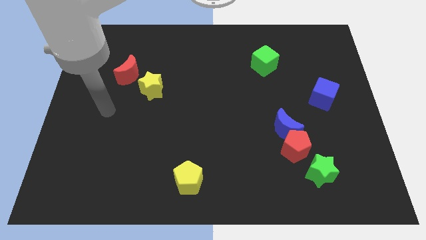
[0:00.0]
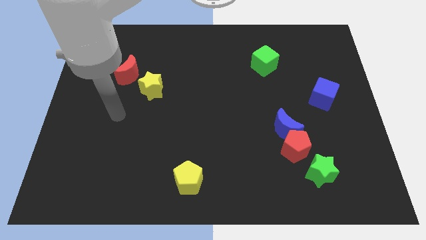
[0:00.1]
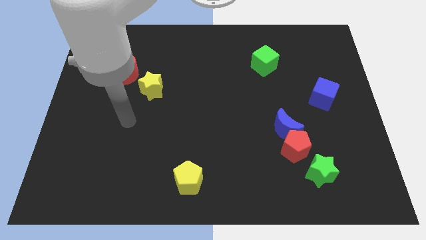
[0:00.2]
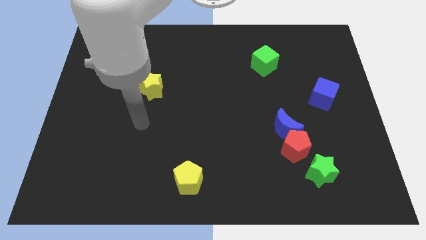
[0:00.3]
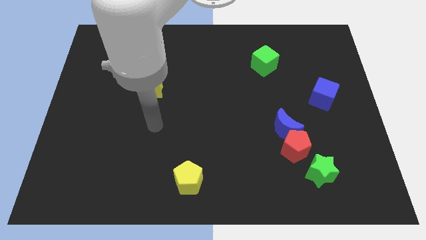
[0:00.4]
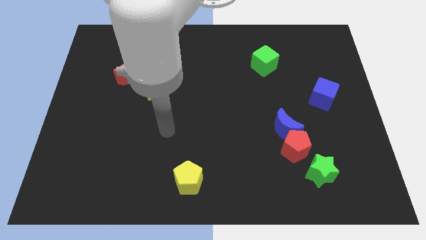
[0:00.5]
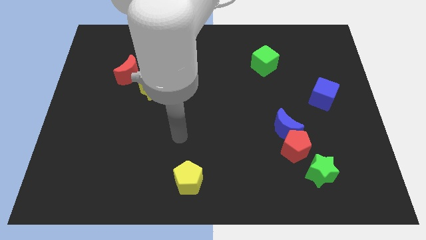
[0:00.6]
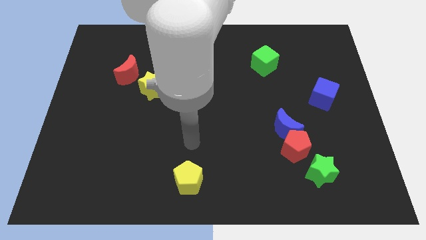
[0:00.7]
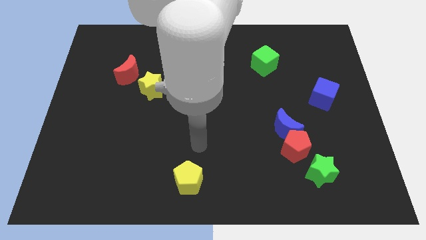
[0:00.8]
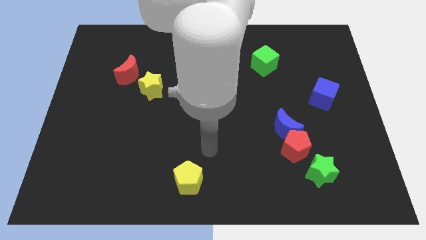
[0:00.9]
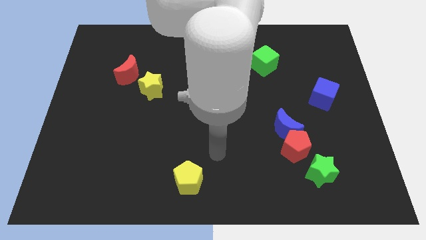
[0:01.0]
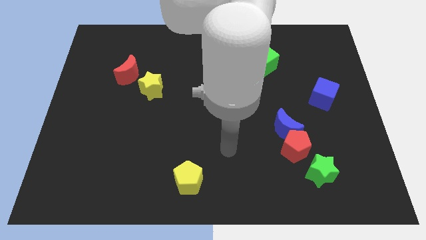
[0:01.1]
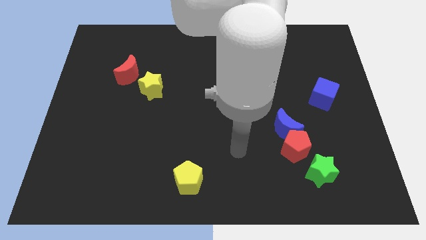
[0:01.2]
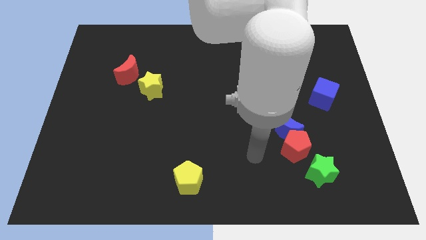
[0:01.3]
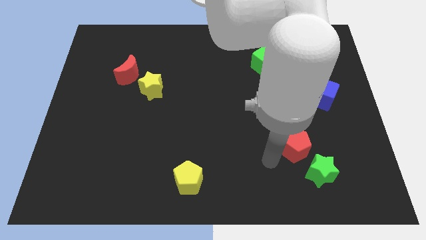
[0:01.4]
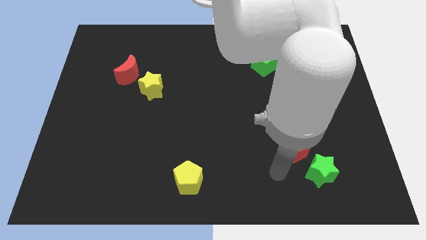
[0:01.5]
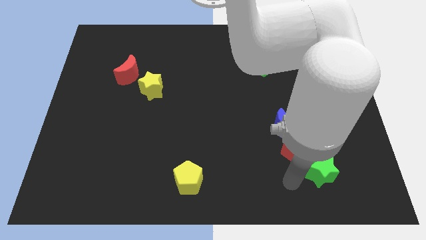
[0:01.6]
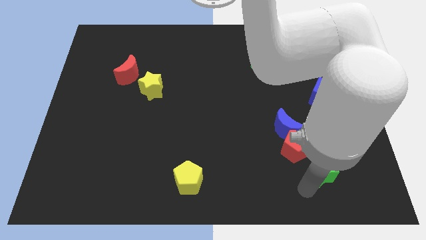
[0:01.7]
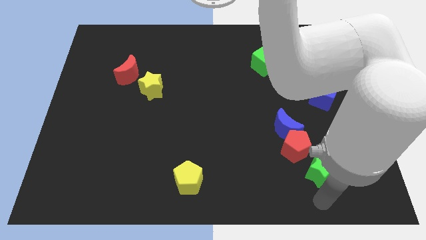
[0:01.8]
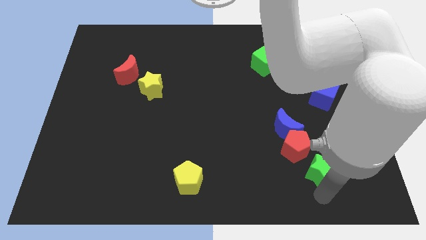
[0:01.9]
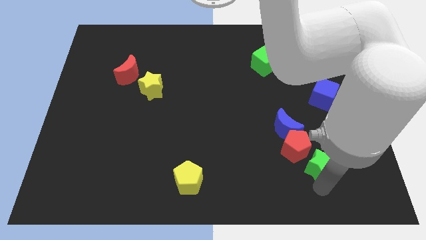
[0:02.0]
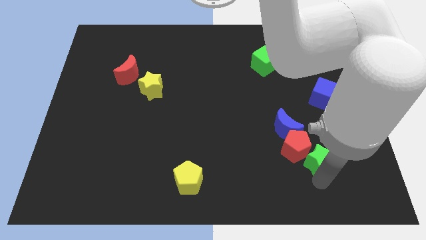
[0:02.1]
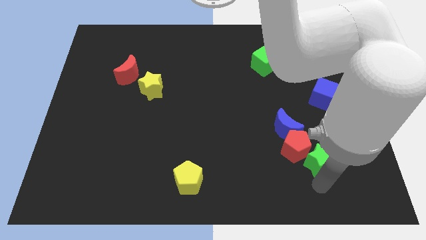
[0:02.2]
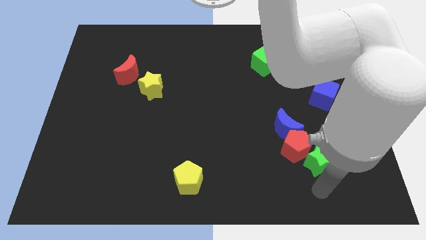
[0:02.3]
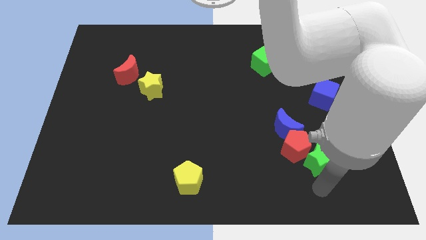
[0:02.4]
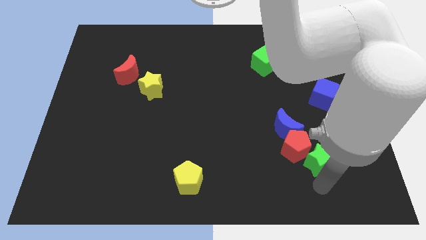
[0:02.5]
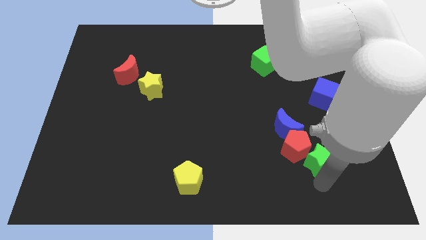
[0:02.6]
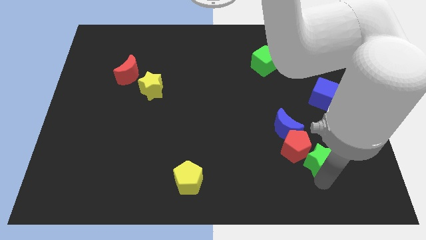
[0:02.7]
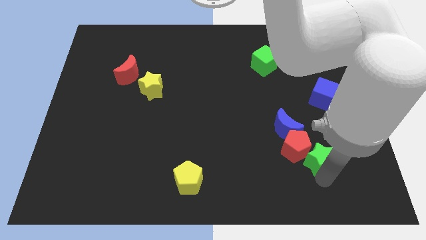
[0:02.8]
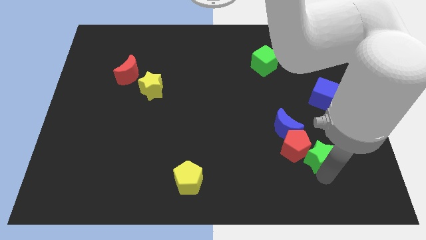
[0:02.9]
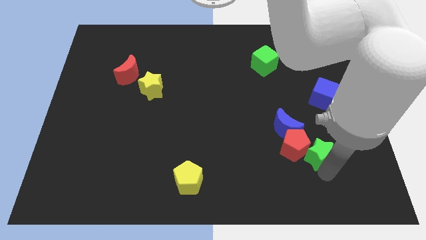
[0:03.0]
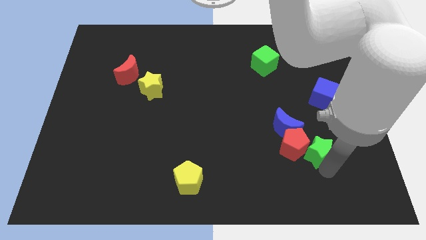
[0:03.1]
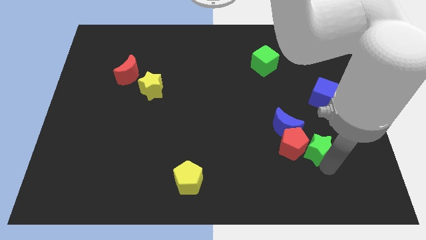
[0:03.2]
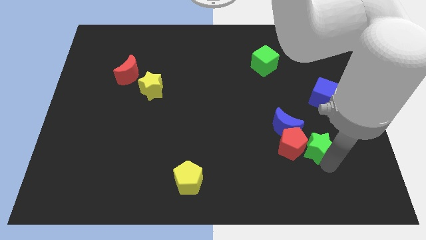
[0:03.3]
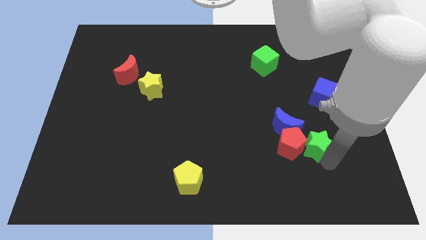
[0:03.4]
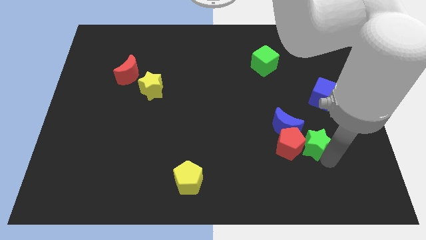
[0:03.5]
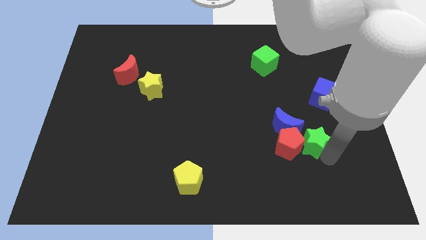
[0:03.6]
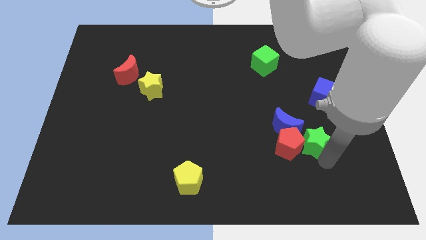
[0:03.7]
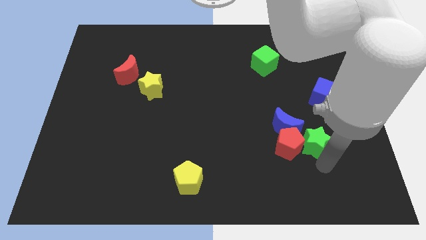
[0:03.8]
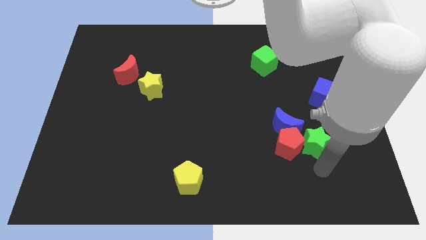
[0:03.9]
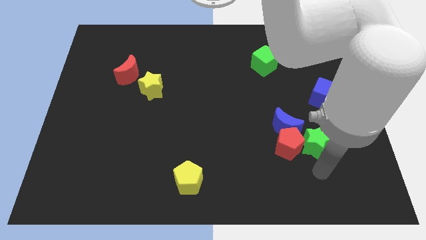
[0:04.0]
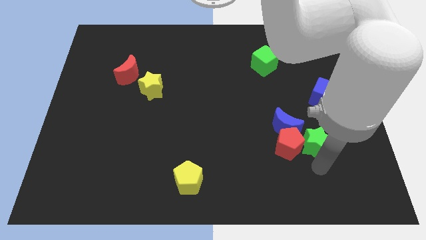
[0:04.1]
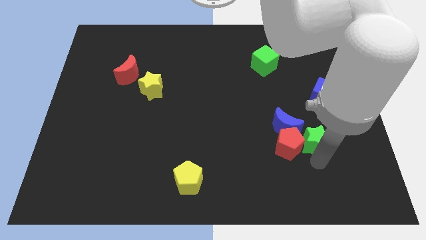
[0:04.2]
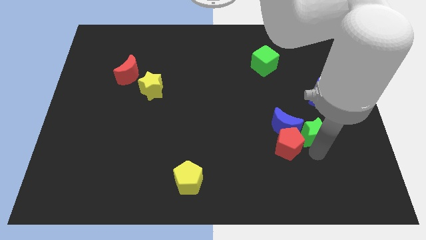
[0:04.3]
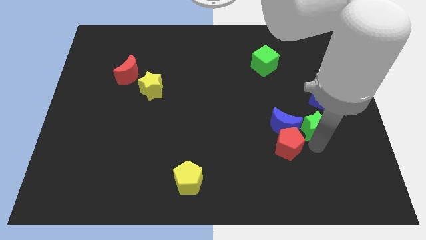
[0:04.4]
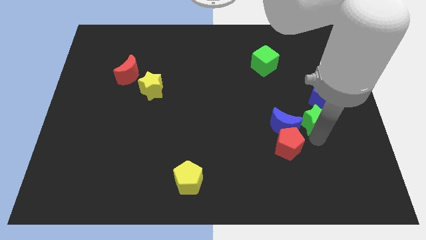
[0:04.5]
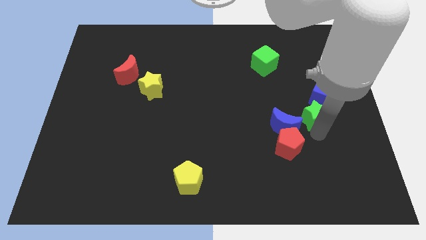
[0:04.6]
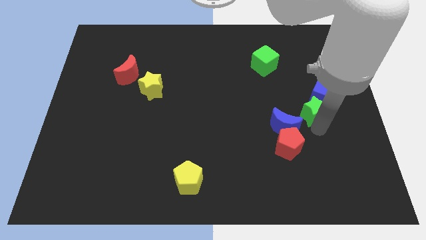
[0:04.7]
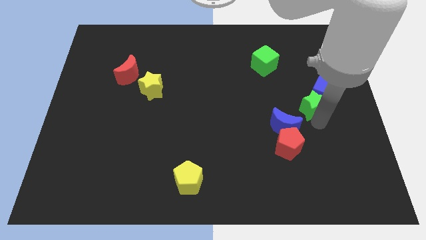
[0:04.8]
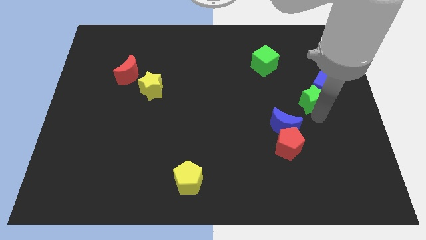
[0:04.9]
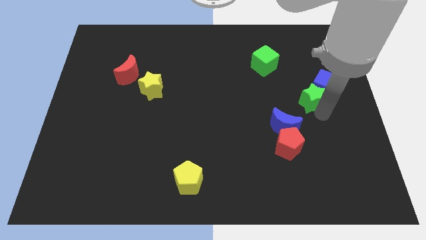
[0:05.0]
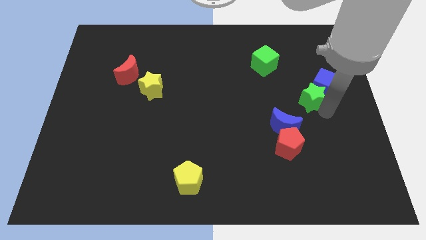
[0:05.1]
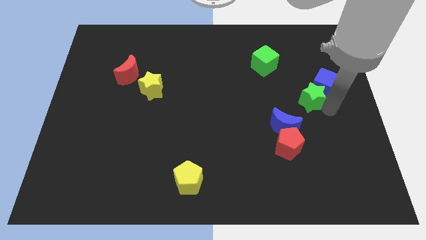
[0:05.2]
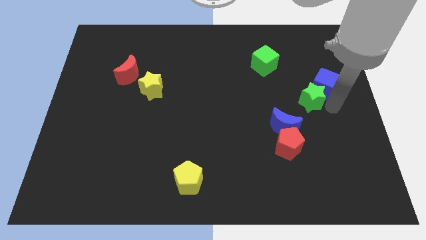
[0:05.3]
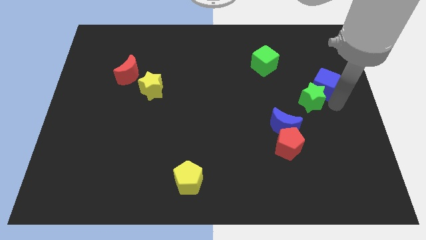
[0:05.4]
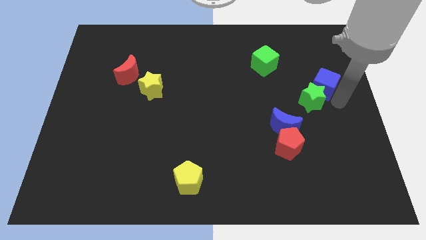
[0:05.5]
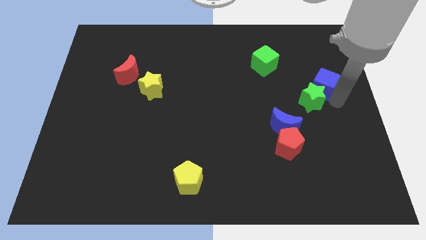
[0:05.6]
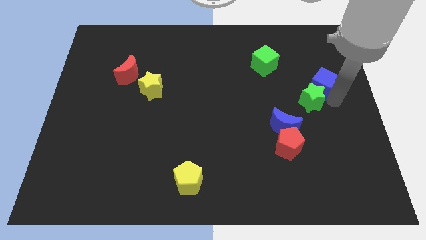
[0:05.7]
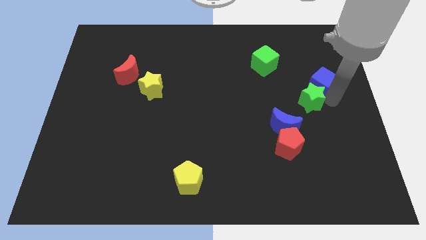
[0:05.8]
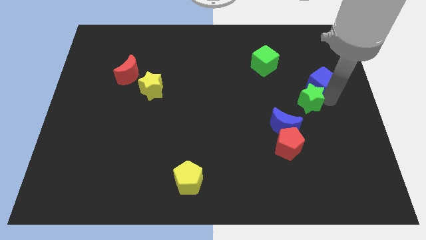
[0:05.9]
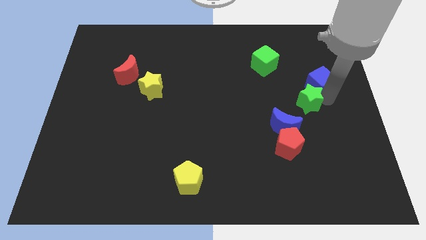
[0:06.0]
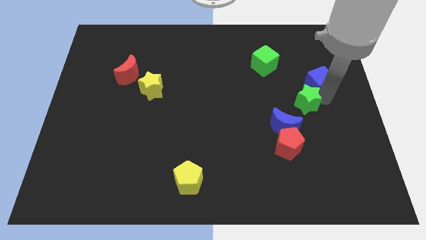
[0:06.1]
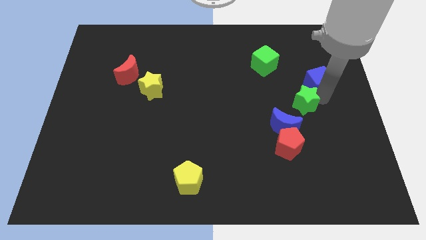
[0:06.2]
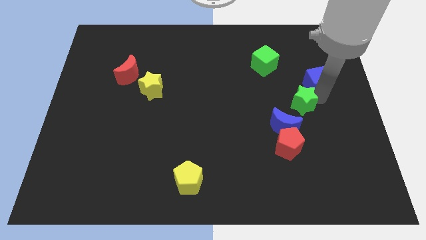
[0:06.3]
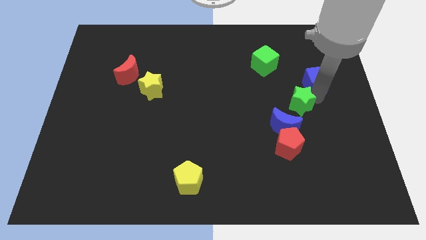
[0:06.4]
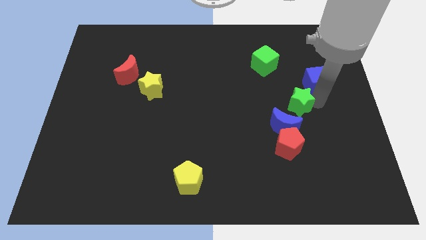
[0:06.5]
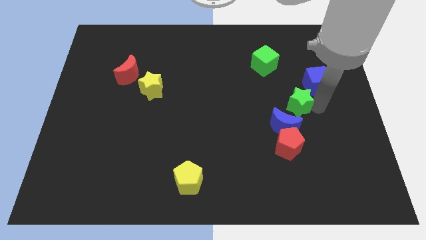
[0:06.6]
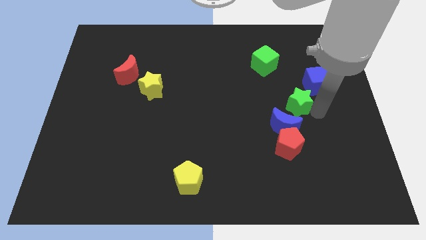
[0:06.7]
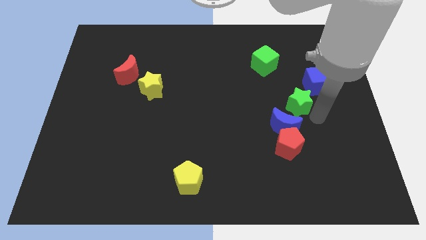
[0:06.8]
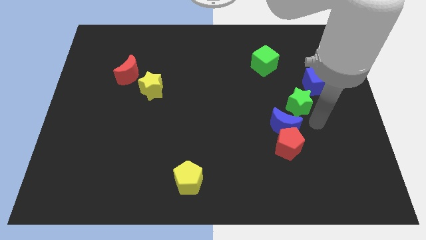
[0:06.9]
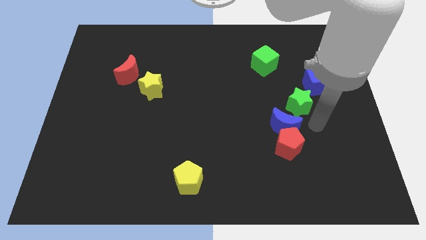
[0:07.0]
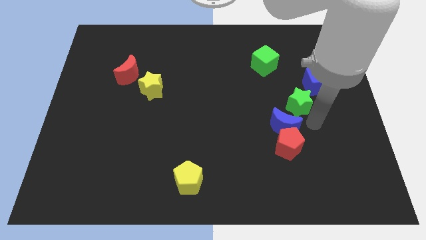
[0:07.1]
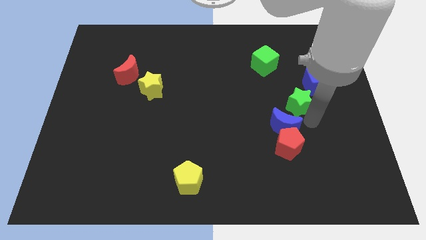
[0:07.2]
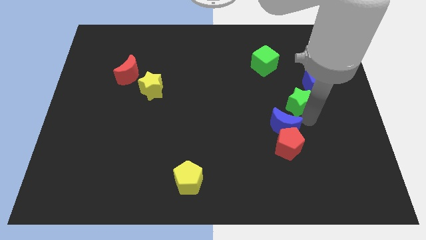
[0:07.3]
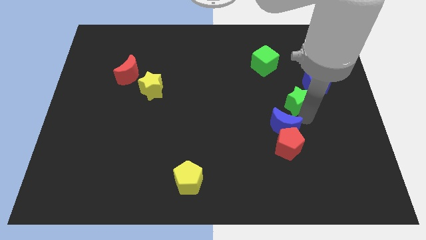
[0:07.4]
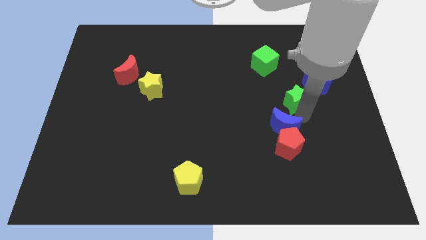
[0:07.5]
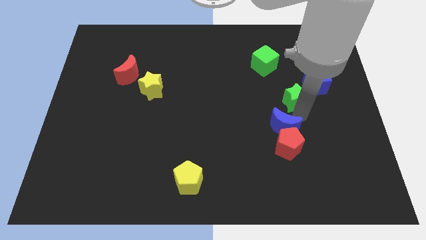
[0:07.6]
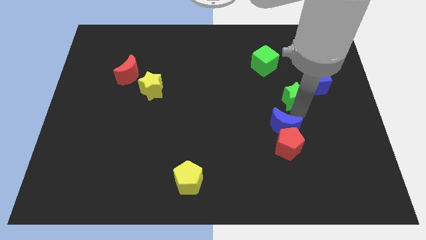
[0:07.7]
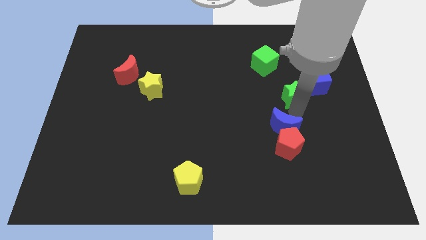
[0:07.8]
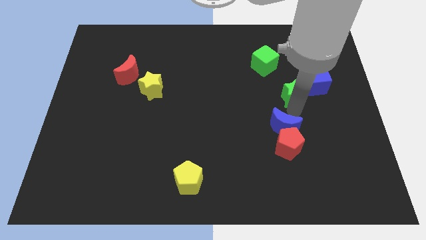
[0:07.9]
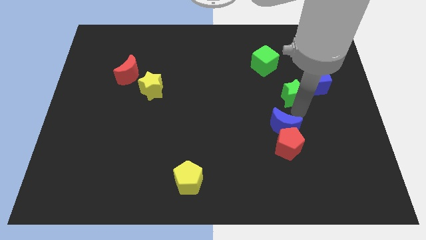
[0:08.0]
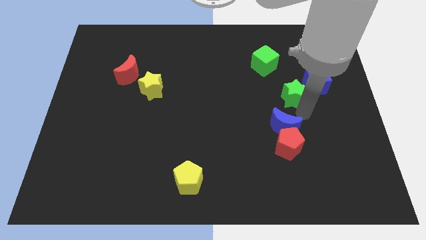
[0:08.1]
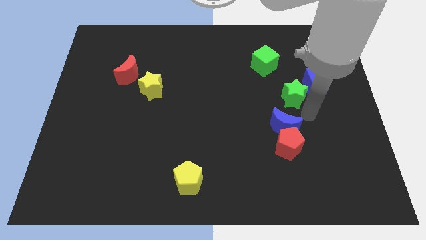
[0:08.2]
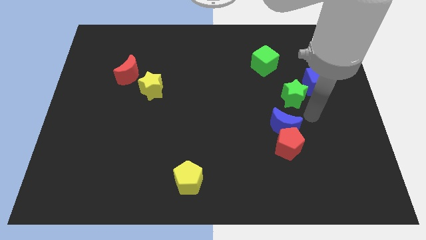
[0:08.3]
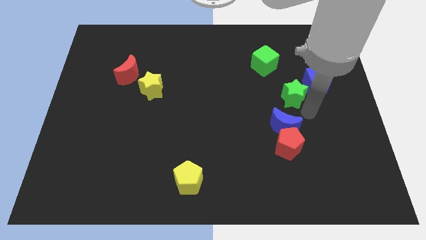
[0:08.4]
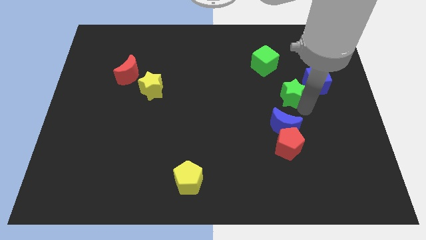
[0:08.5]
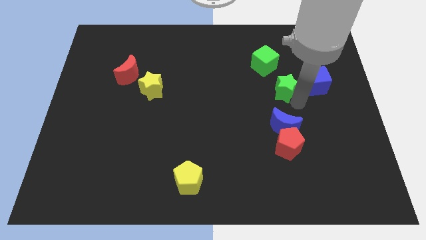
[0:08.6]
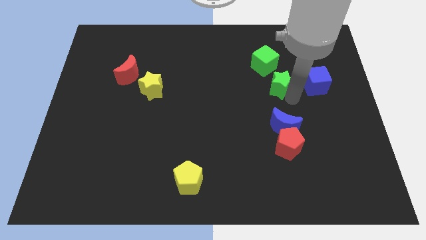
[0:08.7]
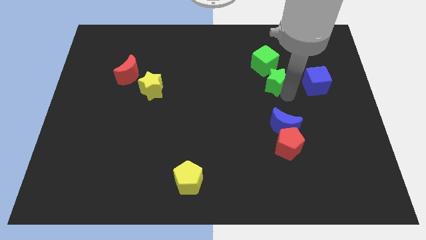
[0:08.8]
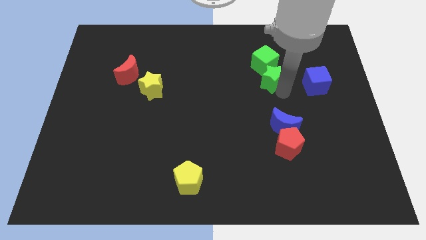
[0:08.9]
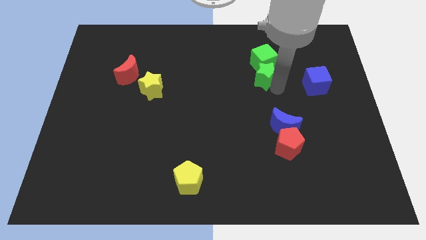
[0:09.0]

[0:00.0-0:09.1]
push the green star towards the green cube
